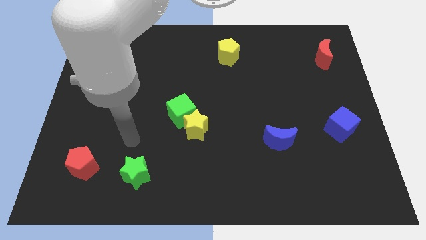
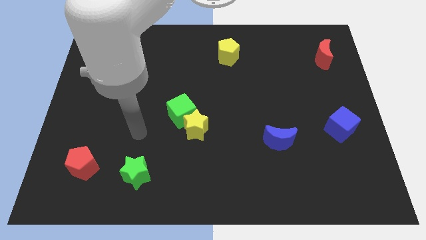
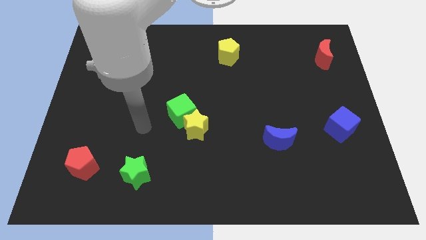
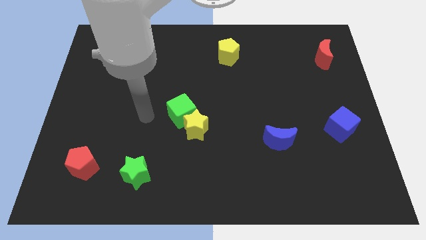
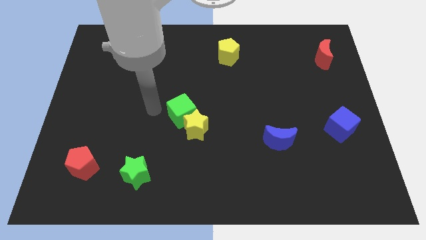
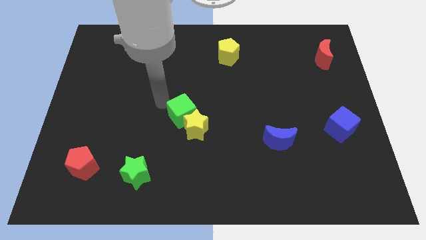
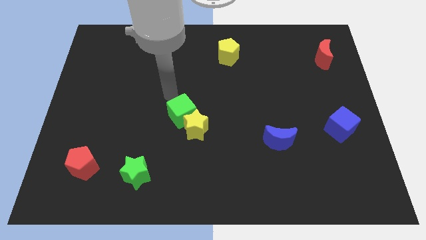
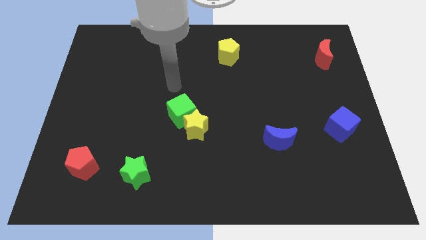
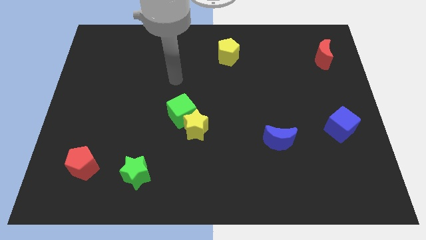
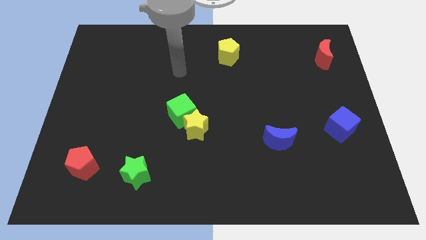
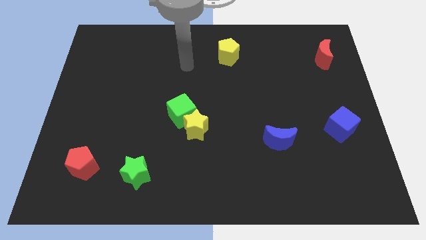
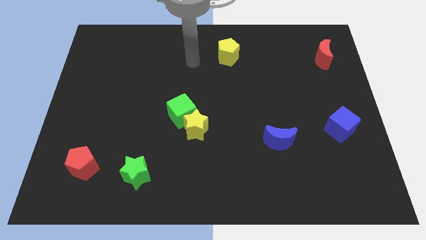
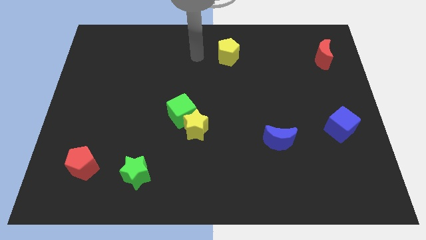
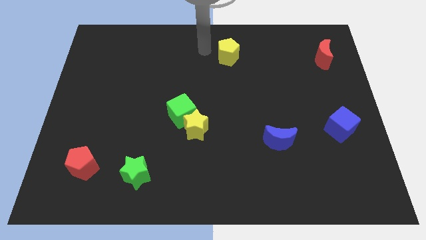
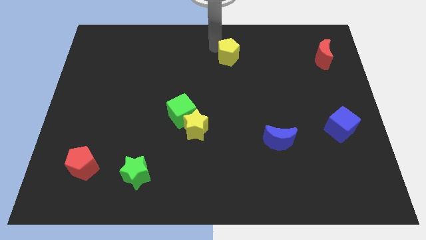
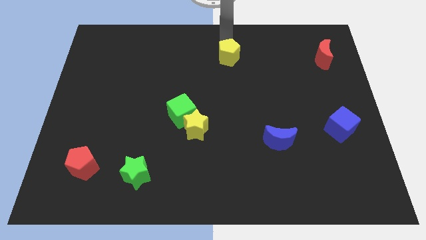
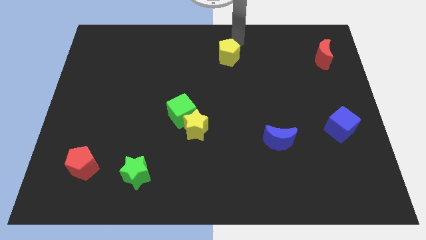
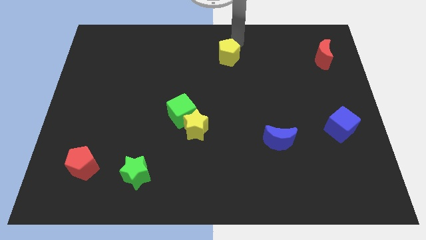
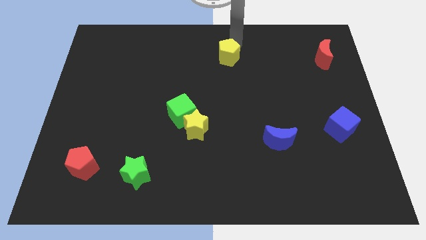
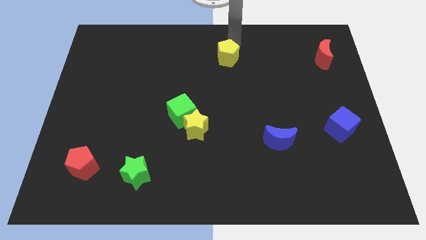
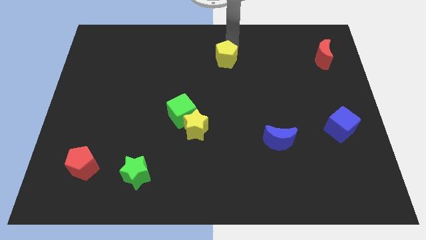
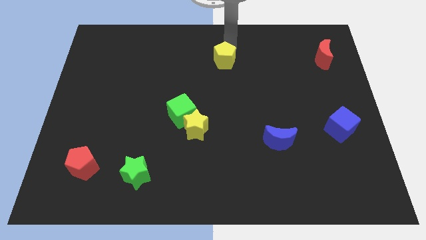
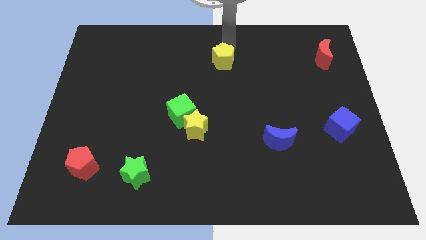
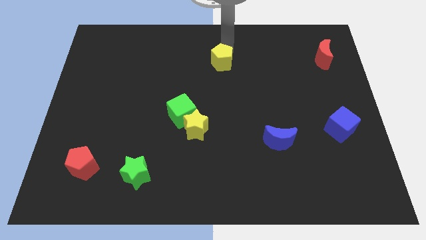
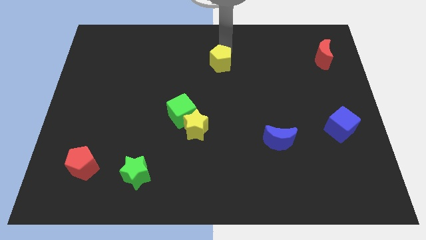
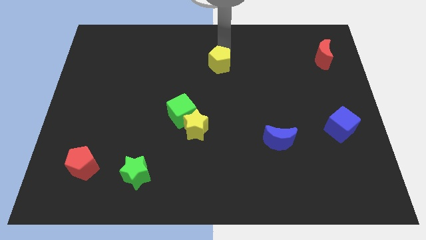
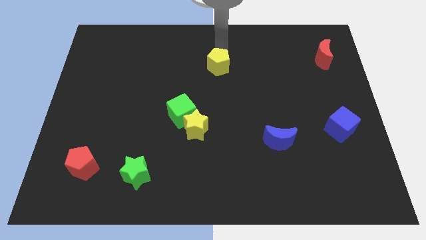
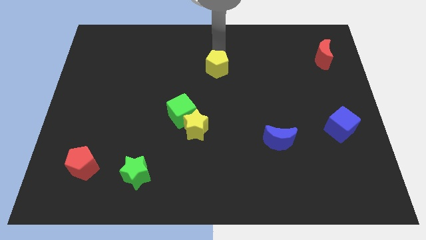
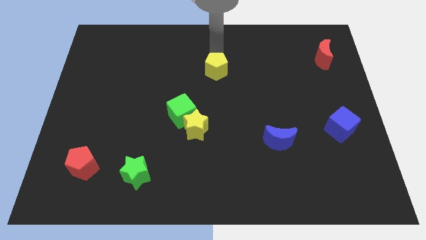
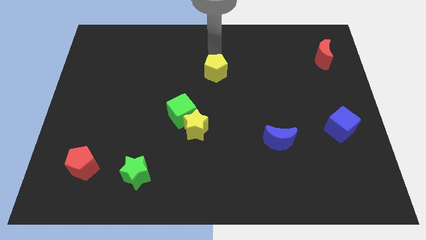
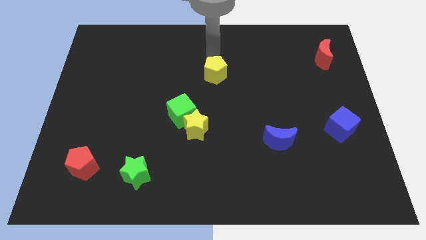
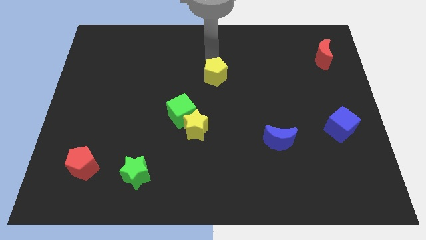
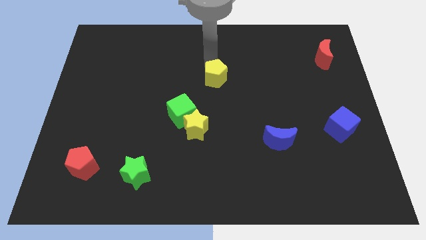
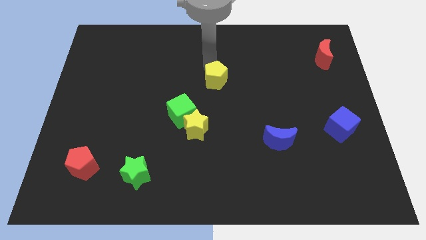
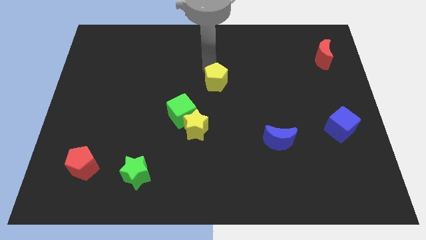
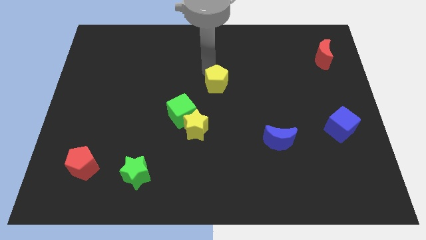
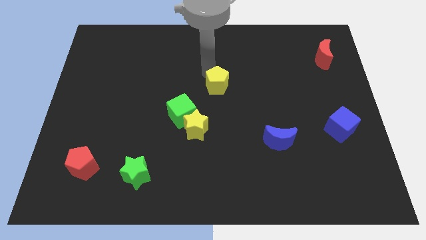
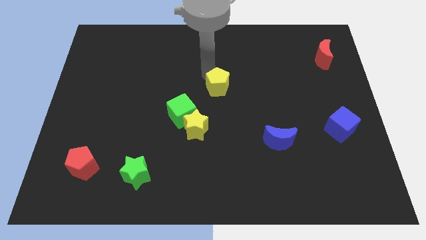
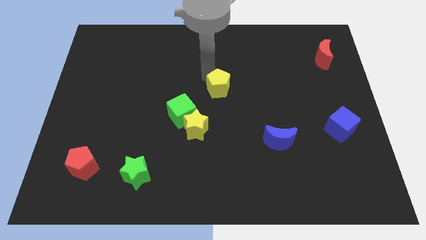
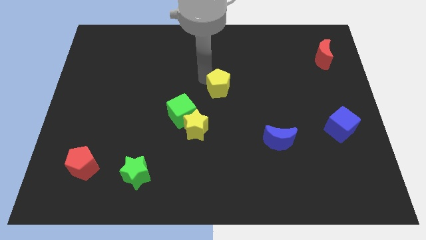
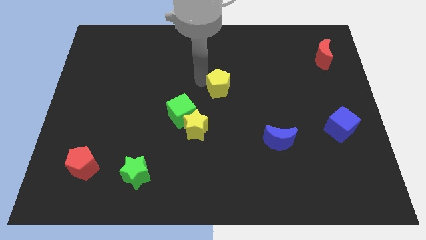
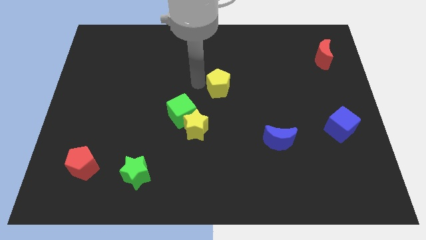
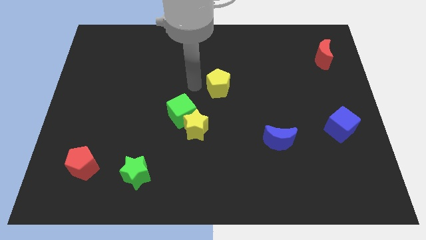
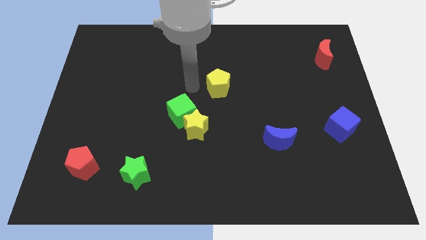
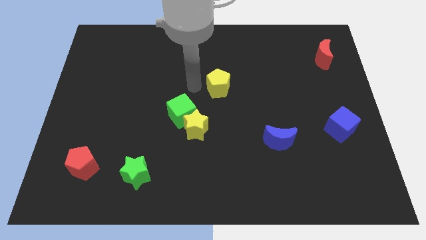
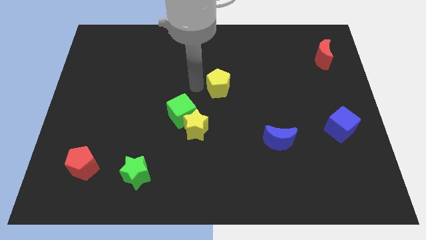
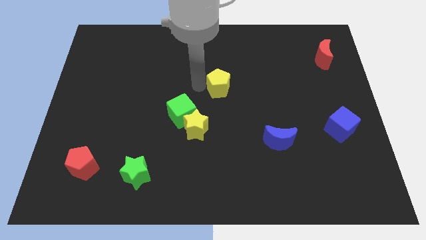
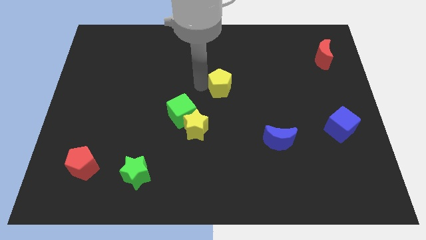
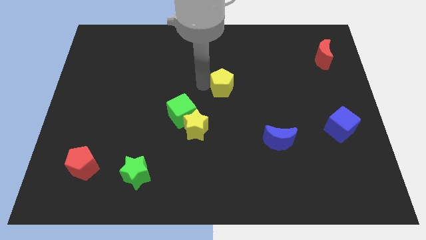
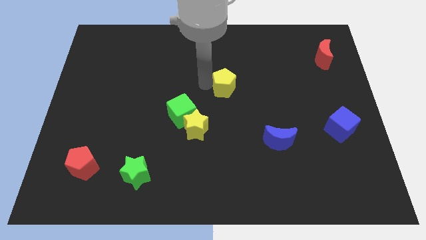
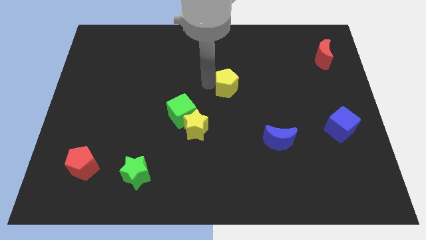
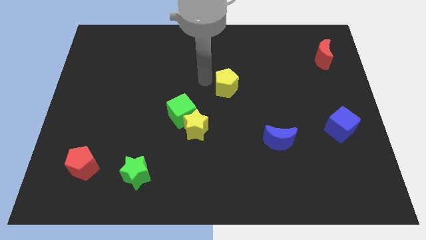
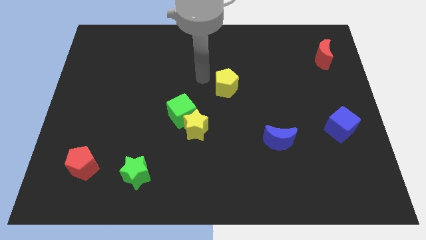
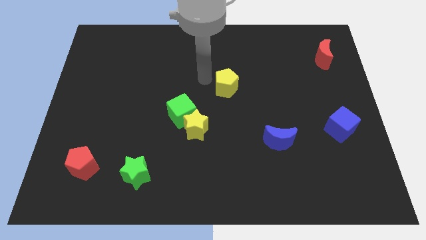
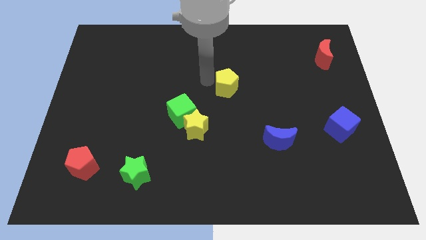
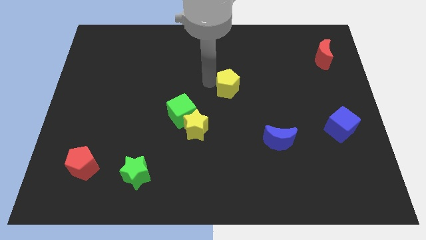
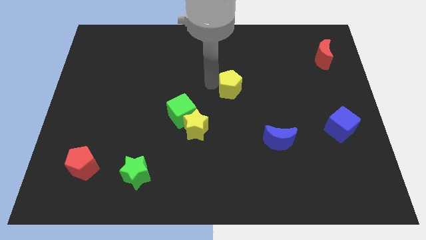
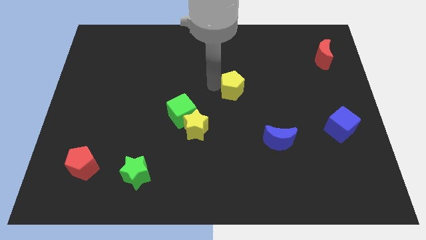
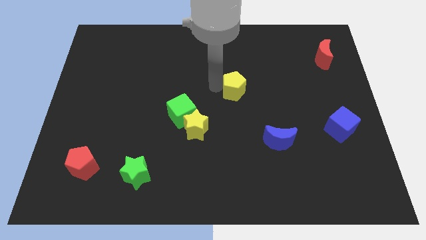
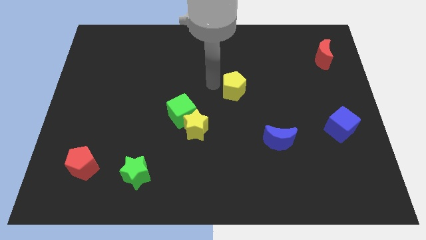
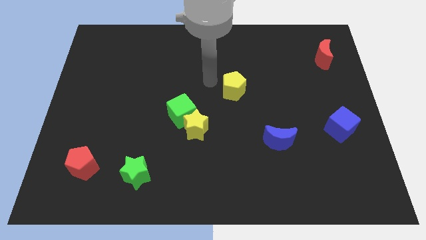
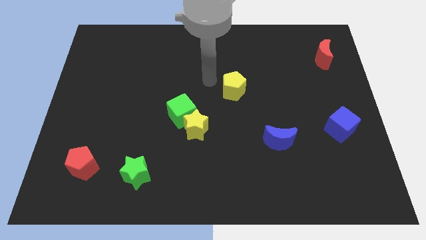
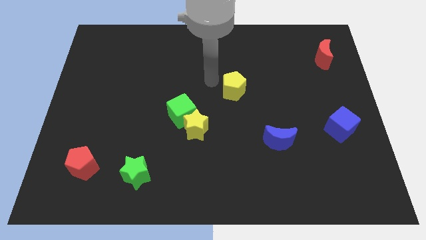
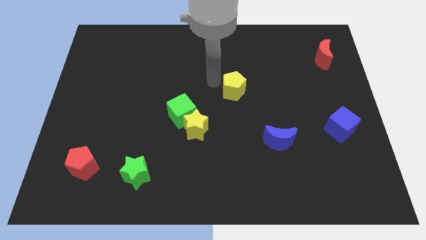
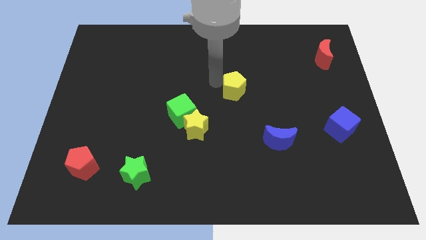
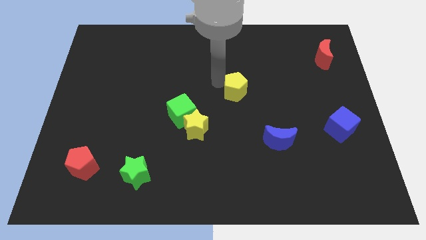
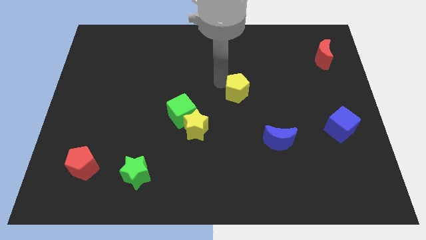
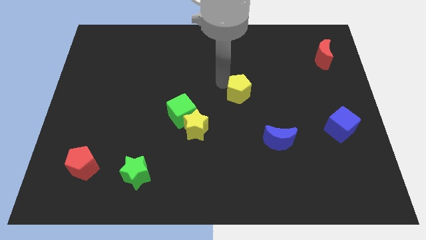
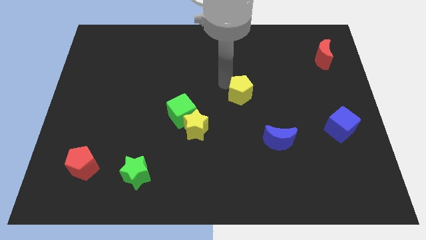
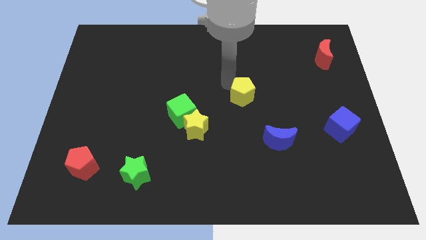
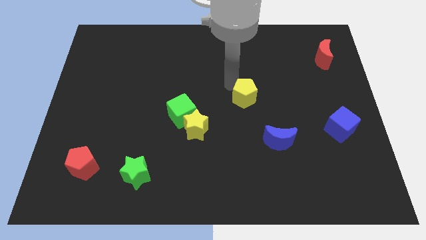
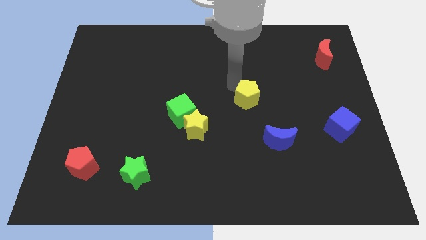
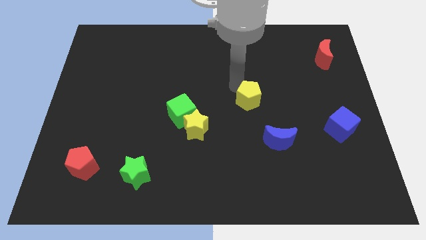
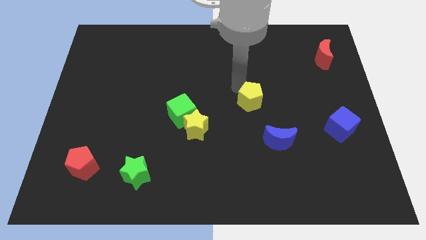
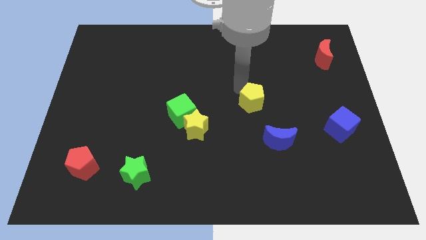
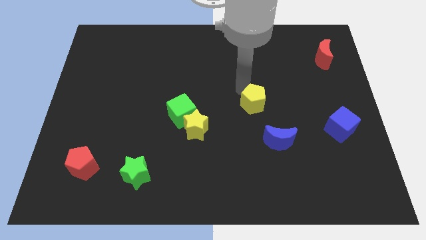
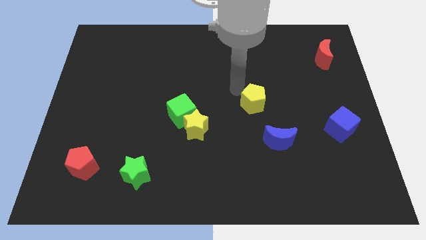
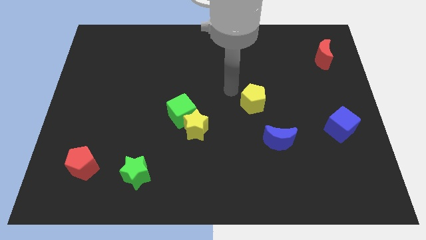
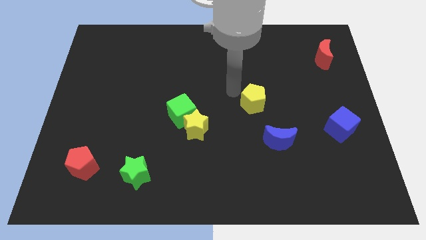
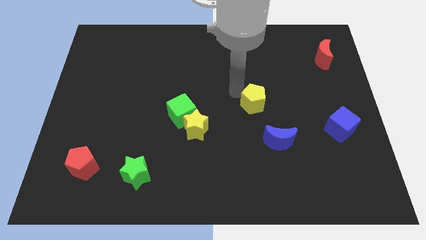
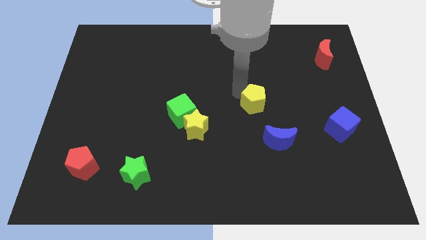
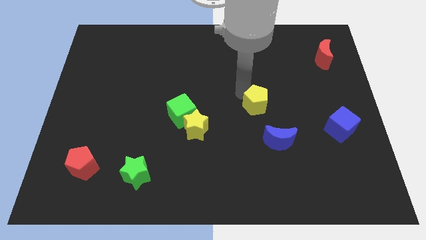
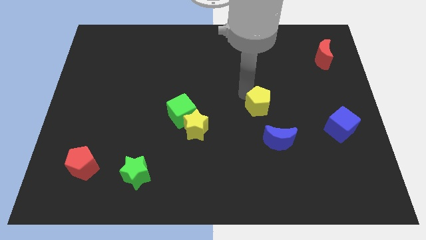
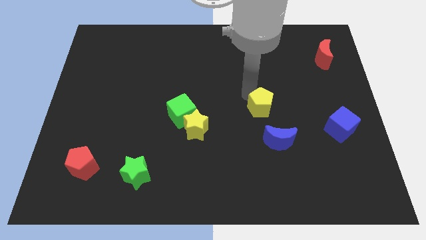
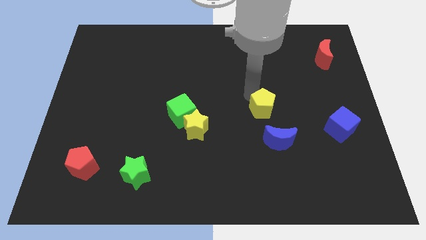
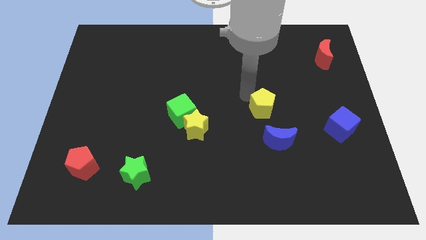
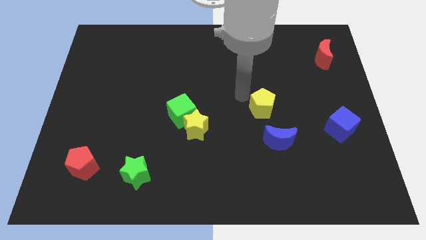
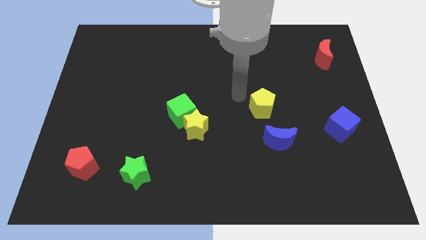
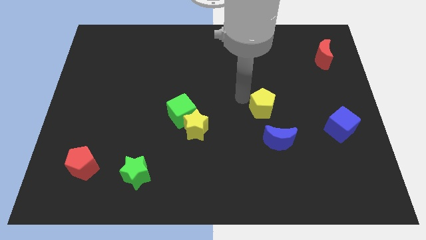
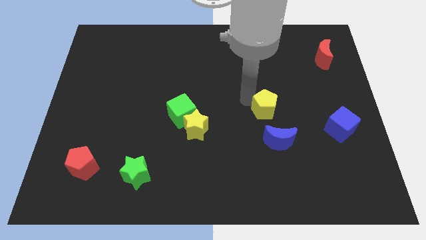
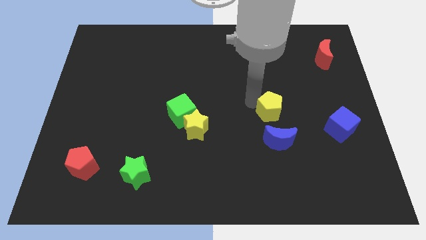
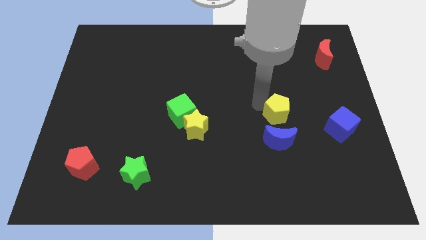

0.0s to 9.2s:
move the yellow pentagon left of the blue cube
